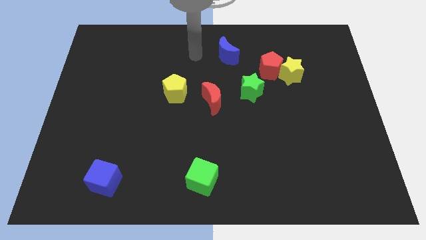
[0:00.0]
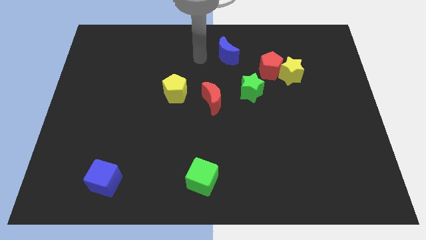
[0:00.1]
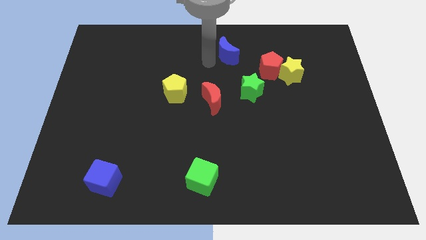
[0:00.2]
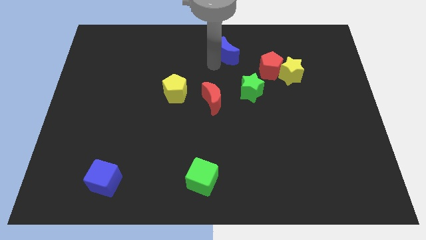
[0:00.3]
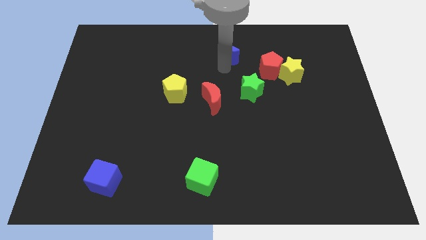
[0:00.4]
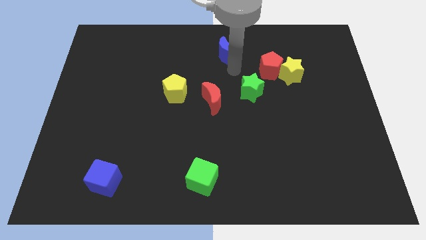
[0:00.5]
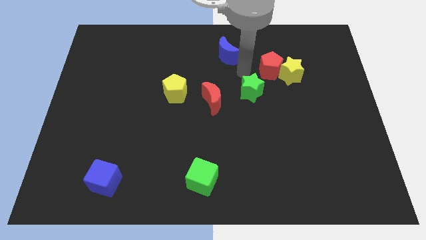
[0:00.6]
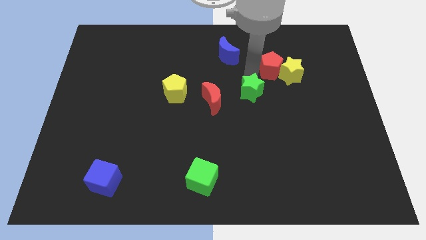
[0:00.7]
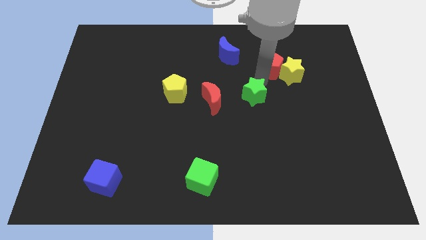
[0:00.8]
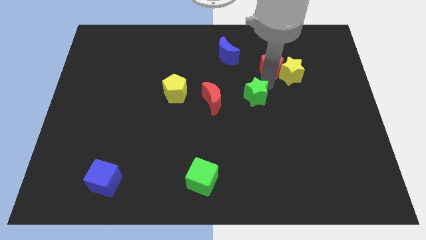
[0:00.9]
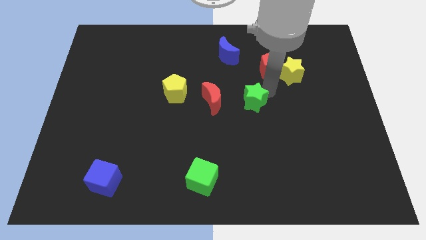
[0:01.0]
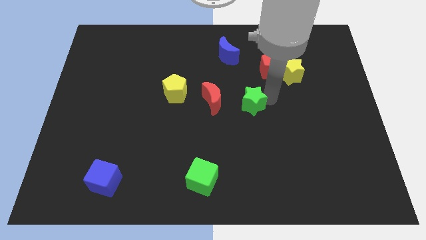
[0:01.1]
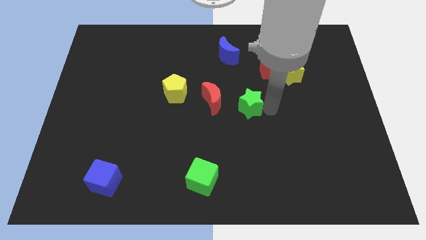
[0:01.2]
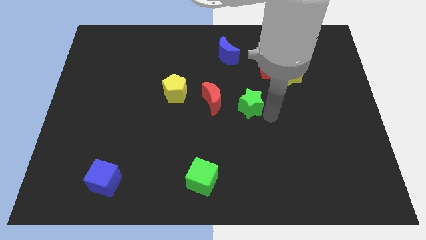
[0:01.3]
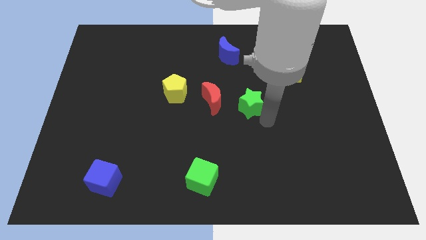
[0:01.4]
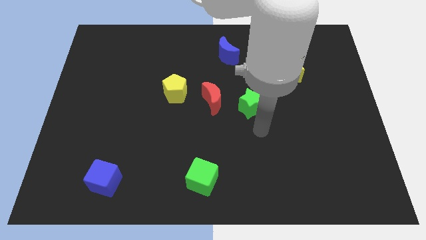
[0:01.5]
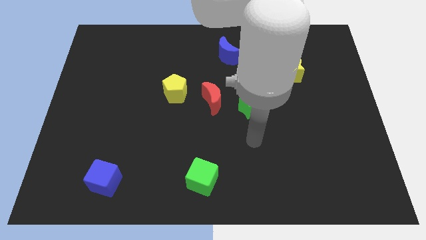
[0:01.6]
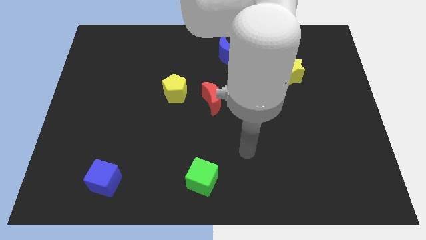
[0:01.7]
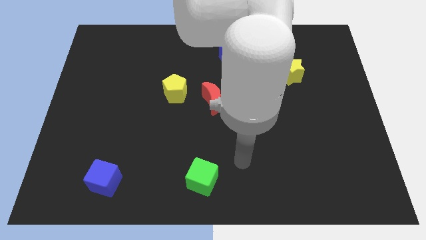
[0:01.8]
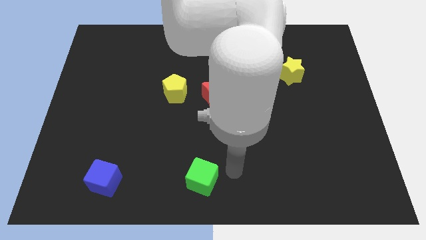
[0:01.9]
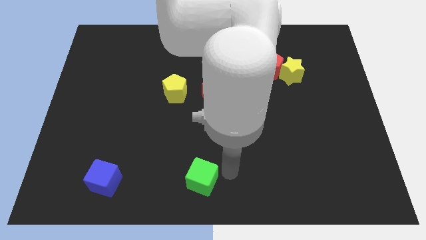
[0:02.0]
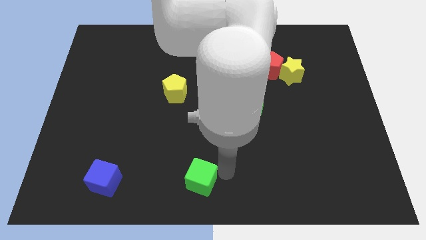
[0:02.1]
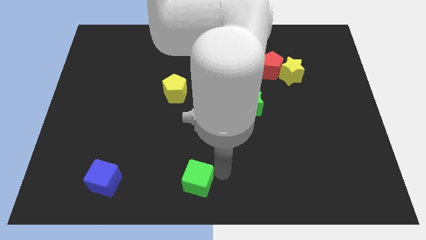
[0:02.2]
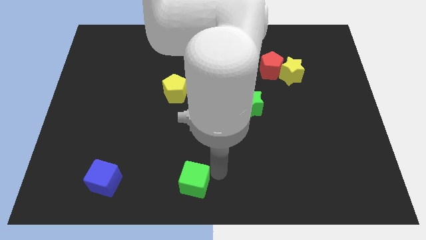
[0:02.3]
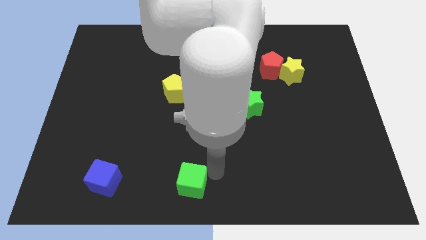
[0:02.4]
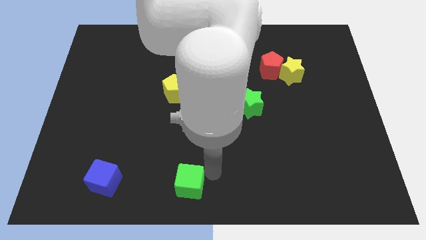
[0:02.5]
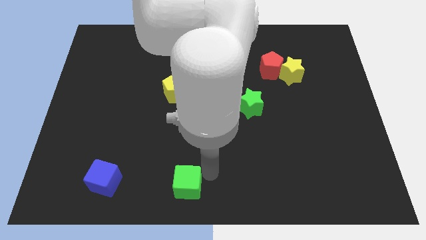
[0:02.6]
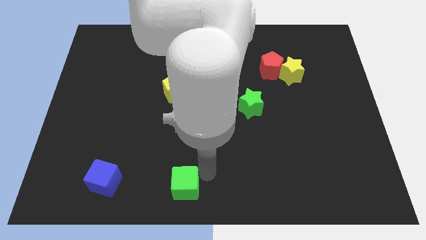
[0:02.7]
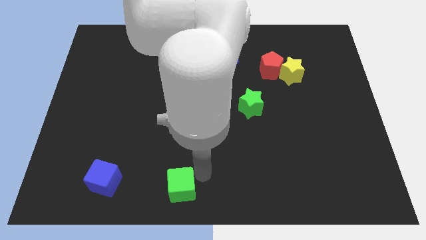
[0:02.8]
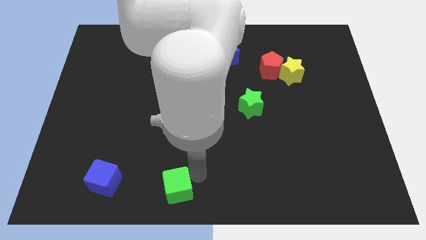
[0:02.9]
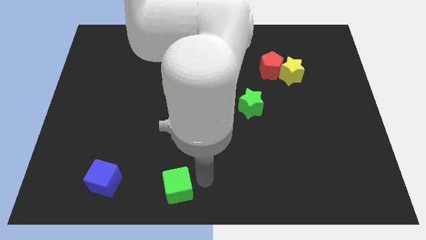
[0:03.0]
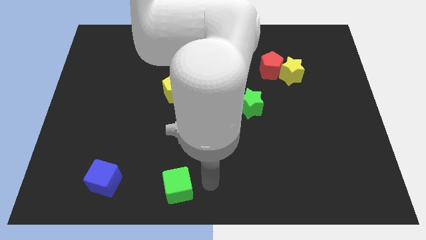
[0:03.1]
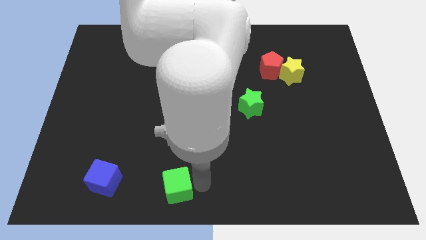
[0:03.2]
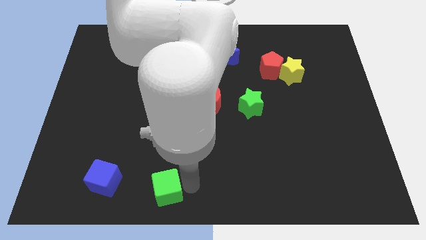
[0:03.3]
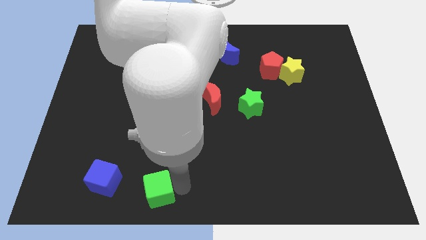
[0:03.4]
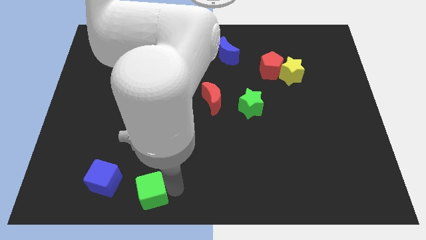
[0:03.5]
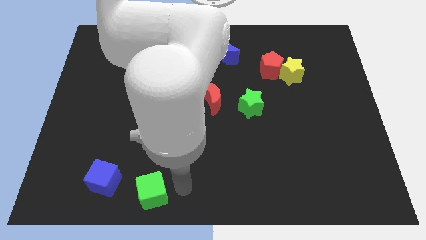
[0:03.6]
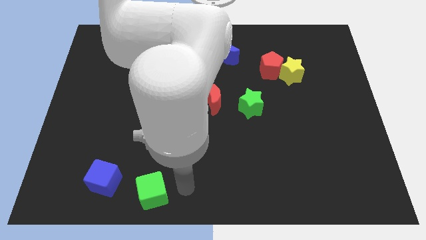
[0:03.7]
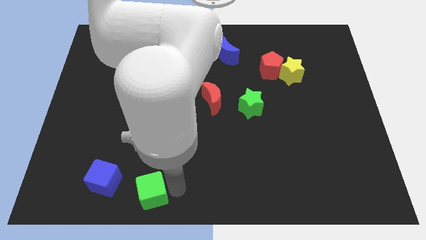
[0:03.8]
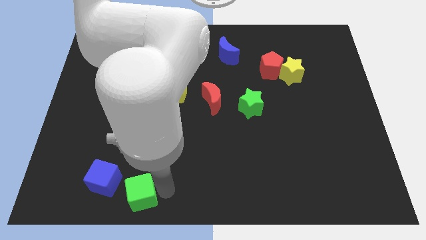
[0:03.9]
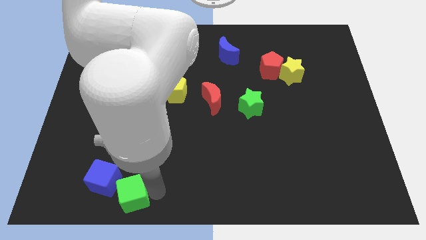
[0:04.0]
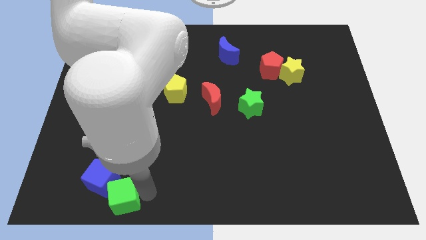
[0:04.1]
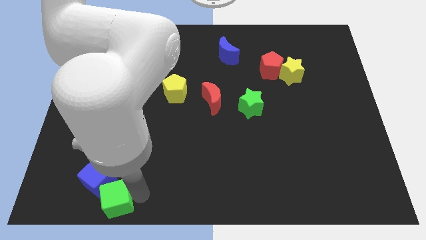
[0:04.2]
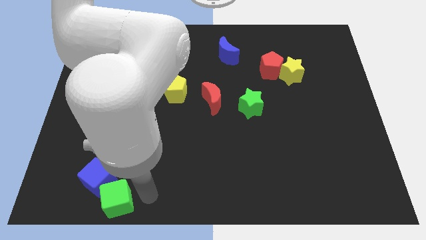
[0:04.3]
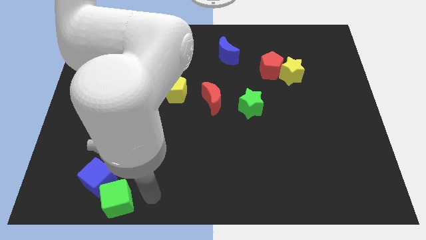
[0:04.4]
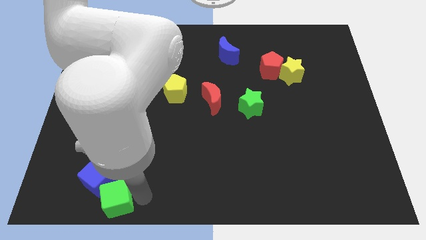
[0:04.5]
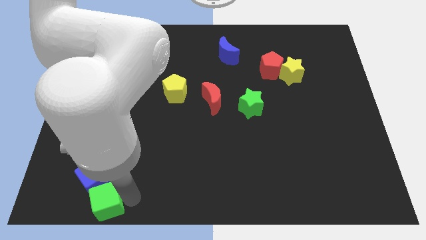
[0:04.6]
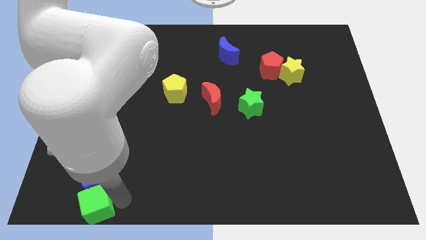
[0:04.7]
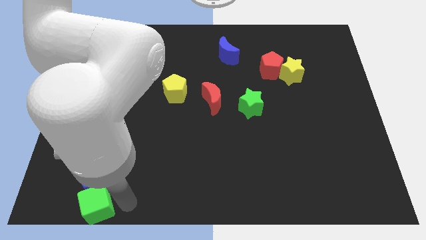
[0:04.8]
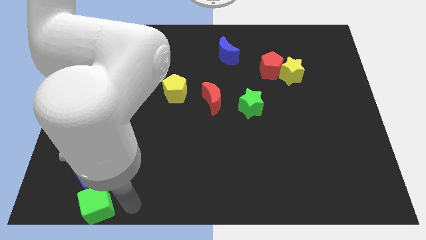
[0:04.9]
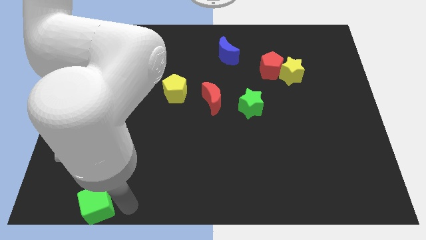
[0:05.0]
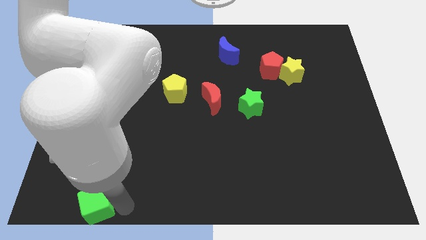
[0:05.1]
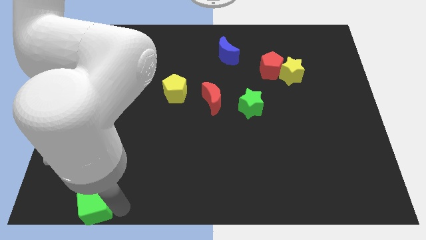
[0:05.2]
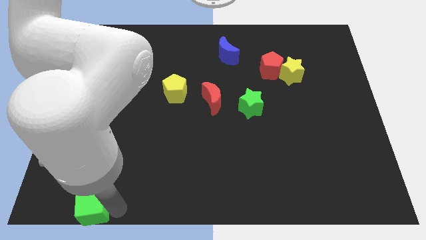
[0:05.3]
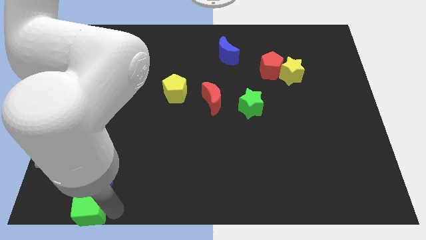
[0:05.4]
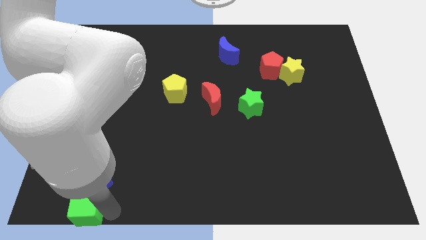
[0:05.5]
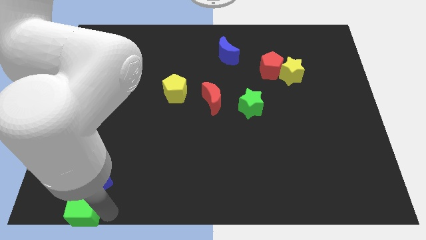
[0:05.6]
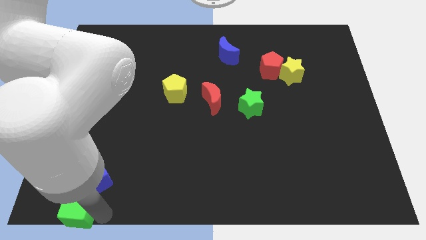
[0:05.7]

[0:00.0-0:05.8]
move the green cube to the bottom left of the board

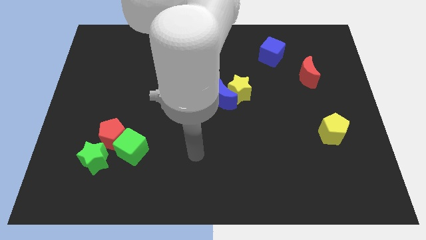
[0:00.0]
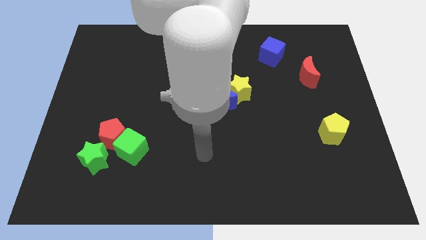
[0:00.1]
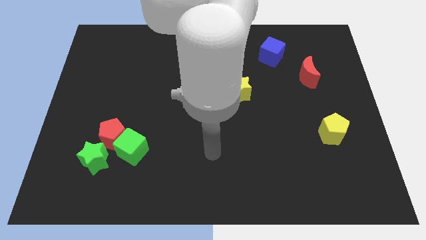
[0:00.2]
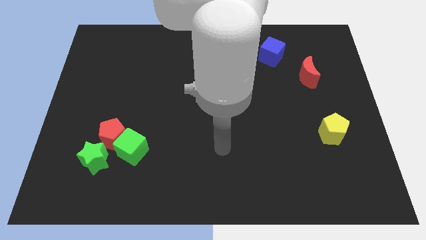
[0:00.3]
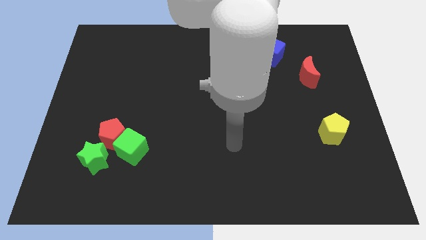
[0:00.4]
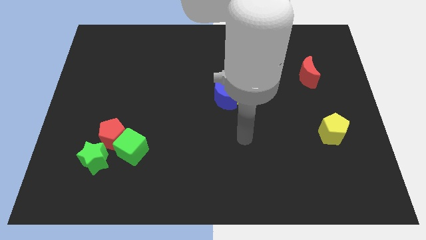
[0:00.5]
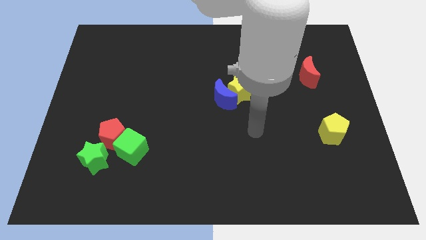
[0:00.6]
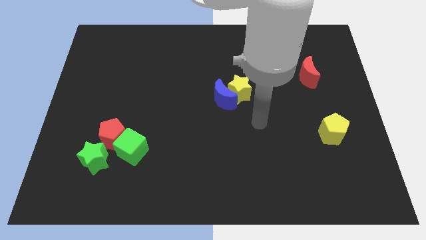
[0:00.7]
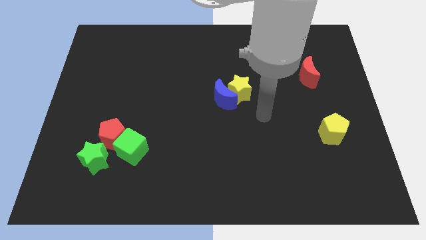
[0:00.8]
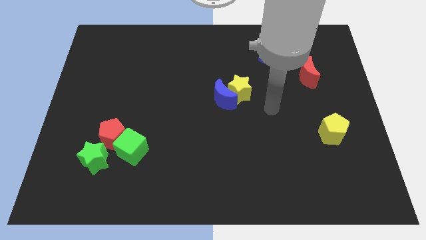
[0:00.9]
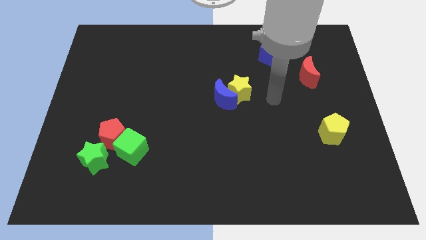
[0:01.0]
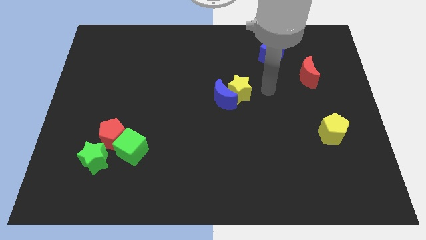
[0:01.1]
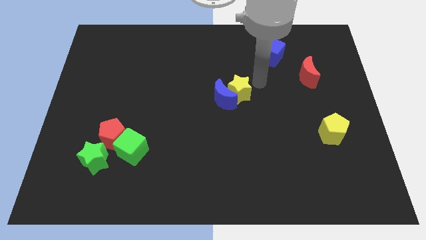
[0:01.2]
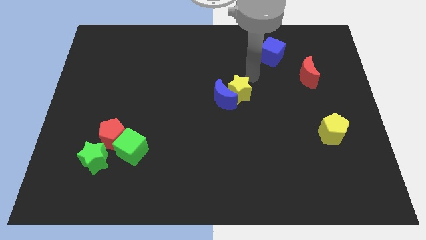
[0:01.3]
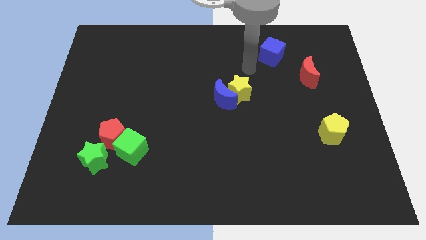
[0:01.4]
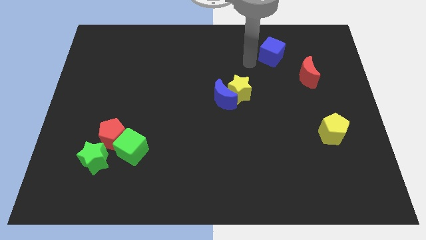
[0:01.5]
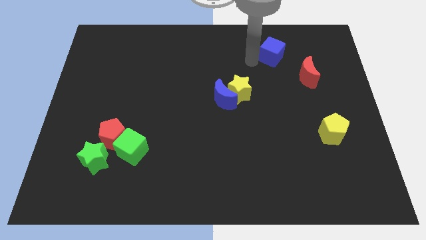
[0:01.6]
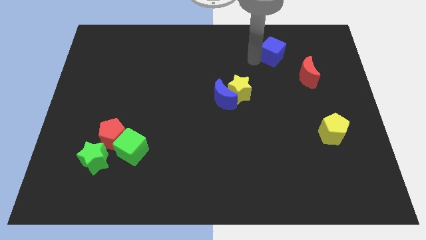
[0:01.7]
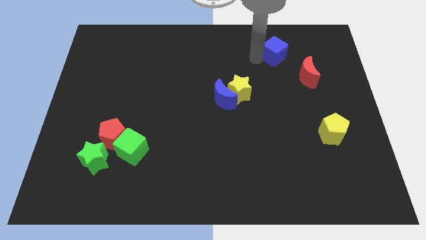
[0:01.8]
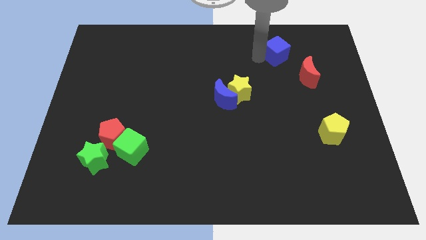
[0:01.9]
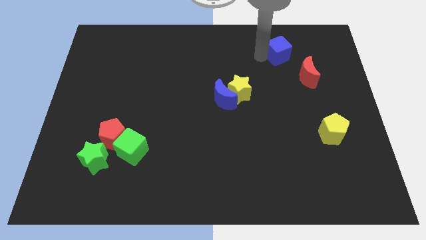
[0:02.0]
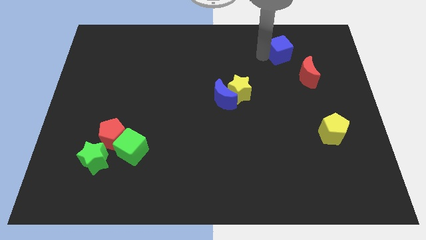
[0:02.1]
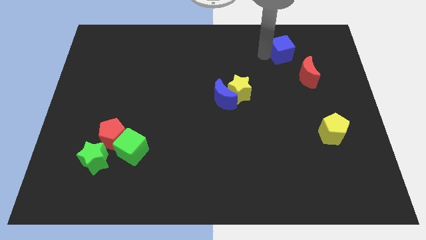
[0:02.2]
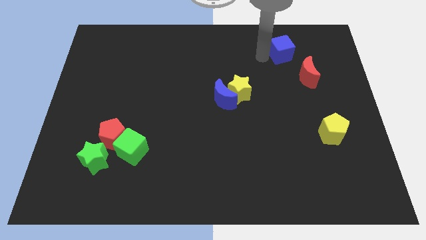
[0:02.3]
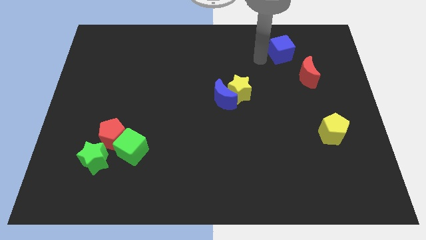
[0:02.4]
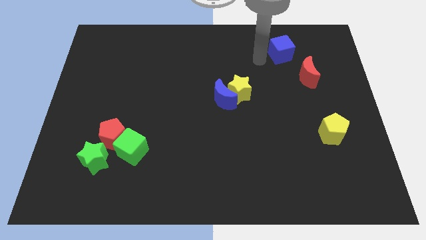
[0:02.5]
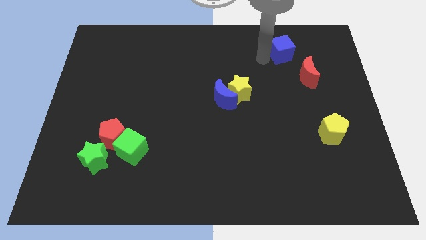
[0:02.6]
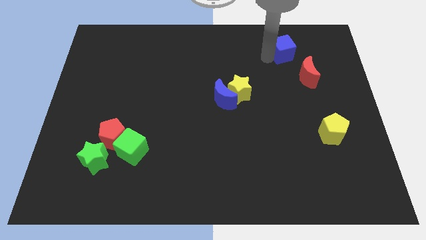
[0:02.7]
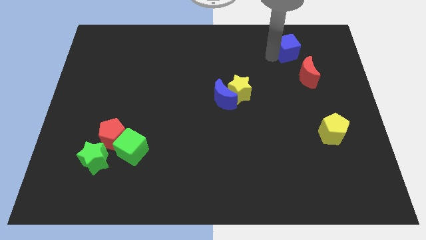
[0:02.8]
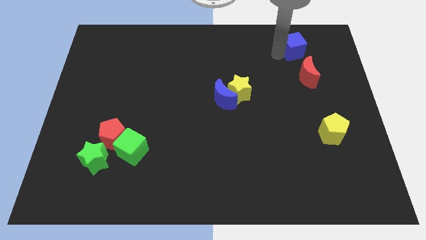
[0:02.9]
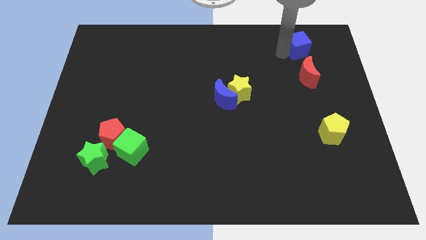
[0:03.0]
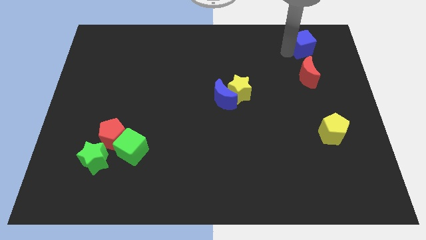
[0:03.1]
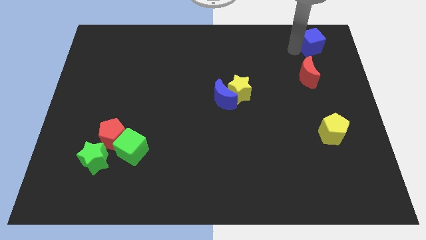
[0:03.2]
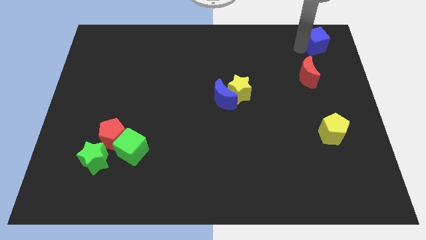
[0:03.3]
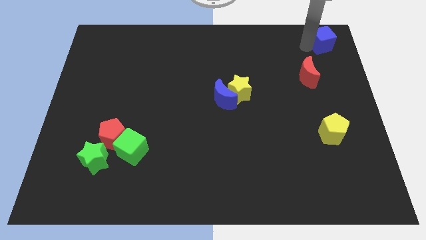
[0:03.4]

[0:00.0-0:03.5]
put the blue cube to the top right
